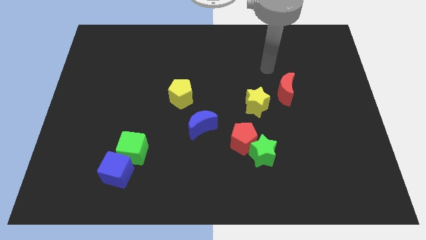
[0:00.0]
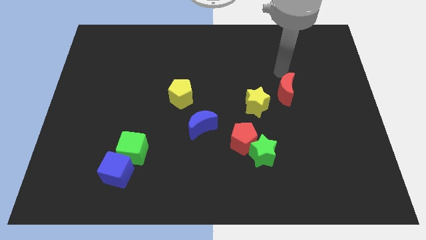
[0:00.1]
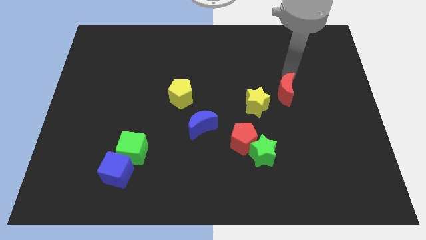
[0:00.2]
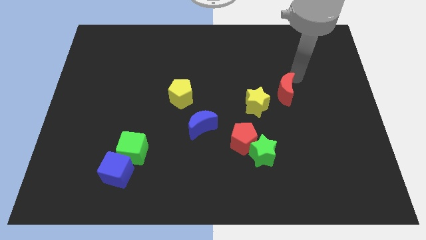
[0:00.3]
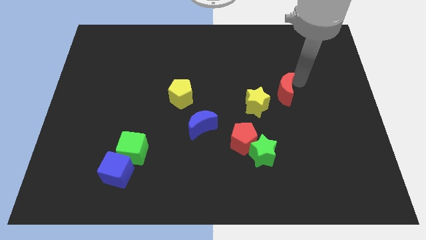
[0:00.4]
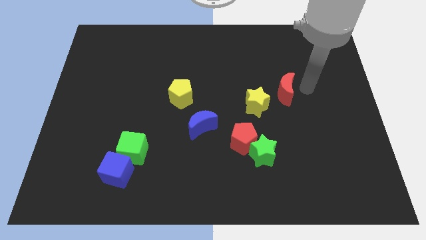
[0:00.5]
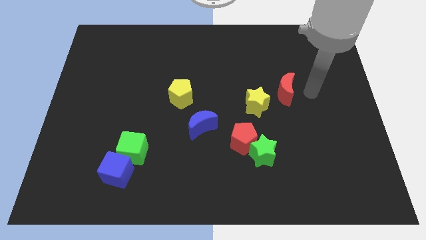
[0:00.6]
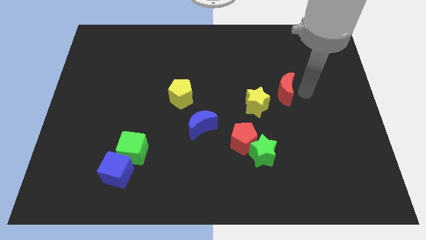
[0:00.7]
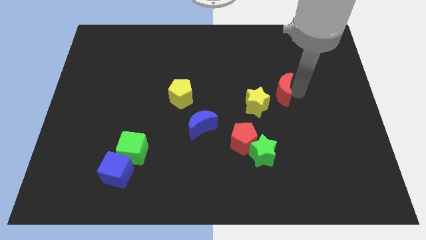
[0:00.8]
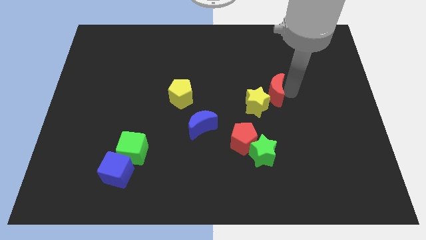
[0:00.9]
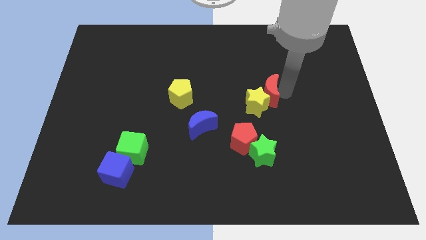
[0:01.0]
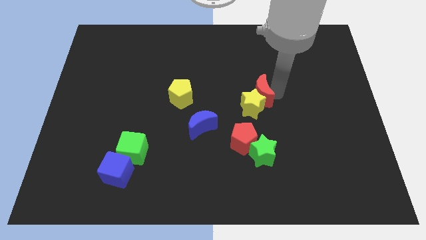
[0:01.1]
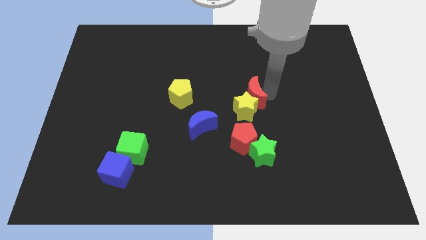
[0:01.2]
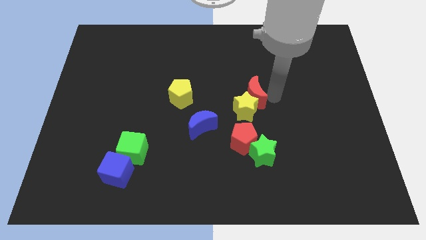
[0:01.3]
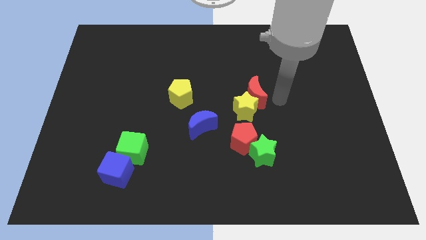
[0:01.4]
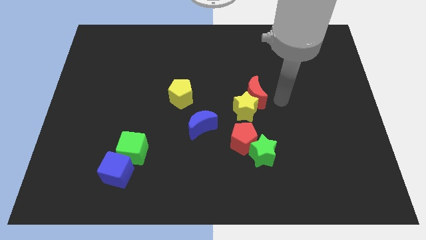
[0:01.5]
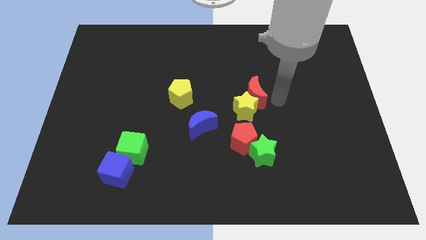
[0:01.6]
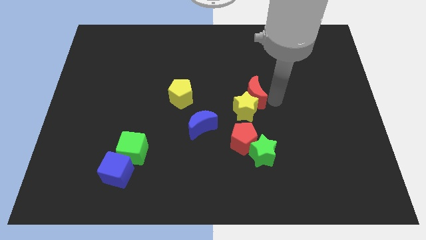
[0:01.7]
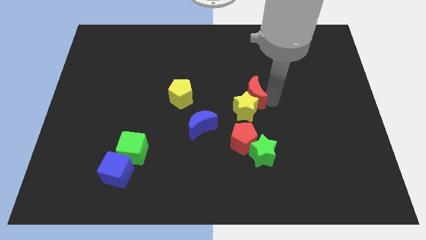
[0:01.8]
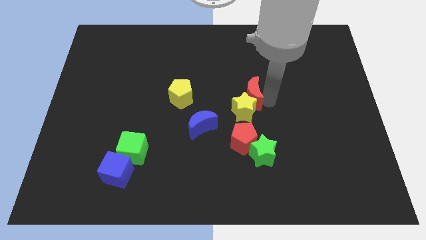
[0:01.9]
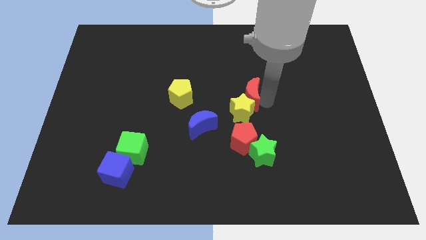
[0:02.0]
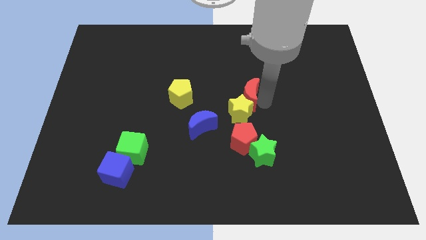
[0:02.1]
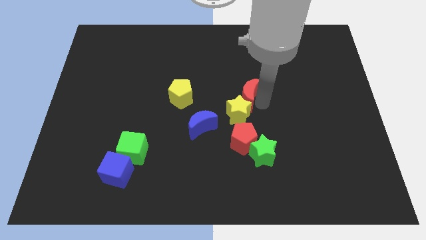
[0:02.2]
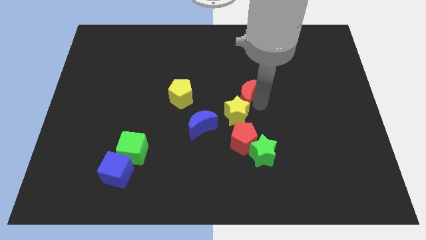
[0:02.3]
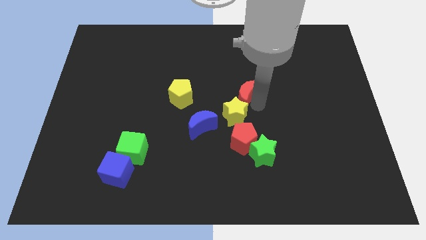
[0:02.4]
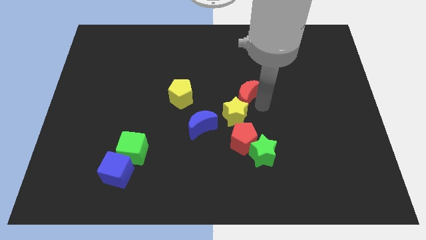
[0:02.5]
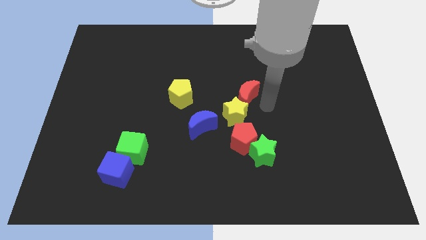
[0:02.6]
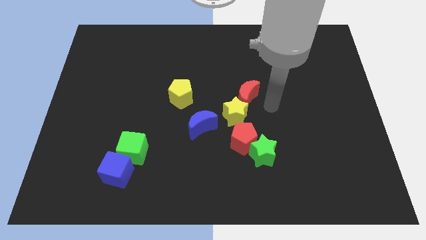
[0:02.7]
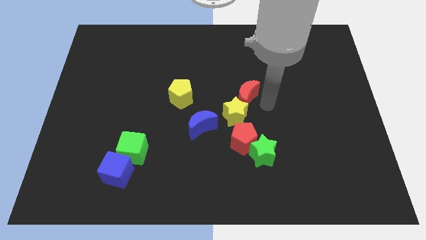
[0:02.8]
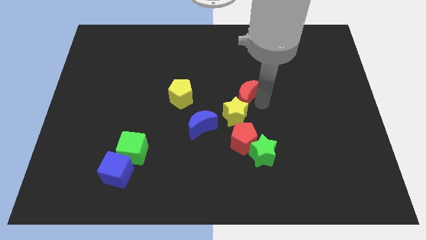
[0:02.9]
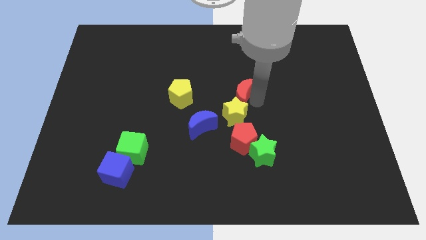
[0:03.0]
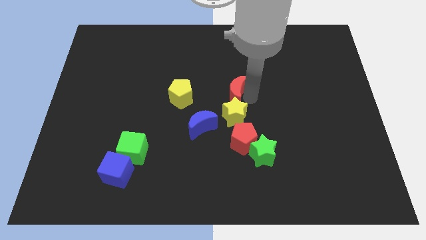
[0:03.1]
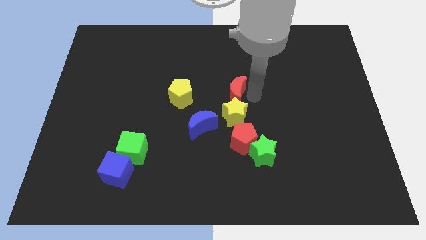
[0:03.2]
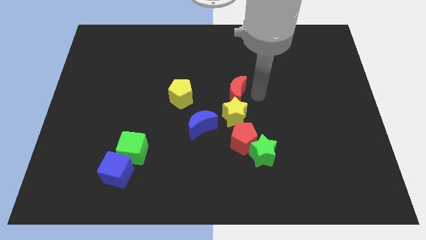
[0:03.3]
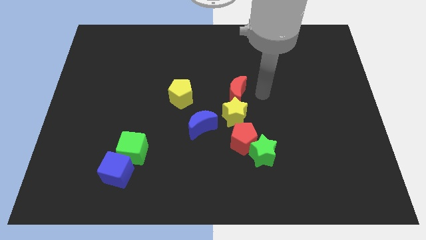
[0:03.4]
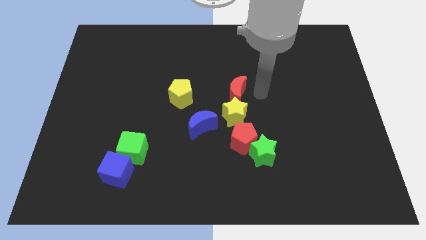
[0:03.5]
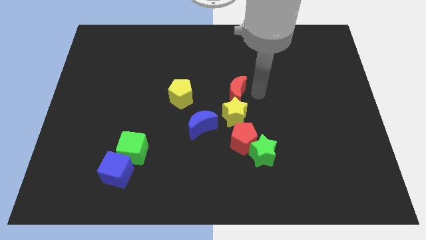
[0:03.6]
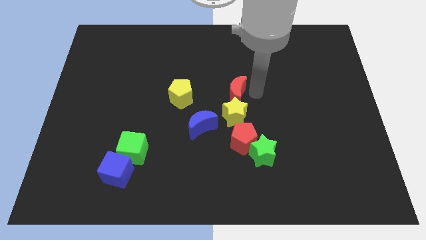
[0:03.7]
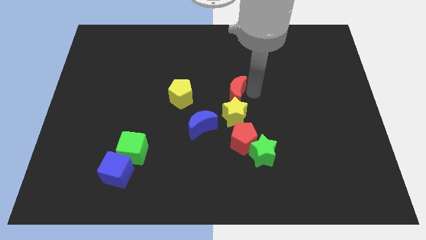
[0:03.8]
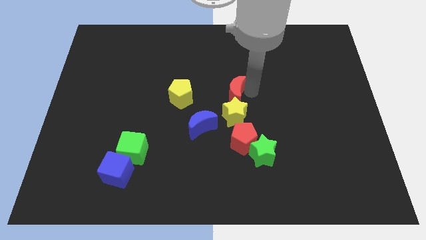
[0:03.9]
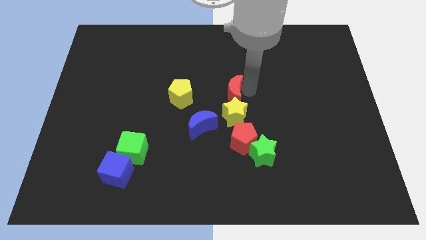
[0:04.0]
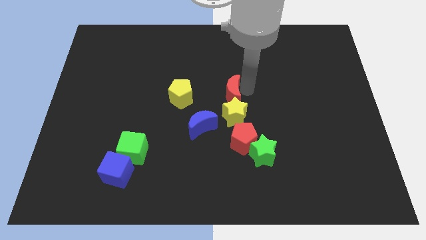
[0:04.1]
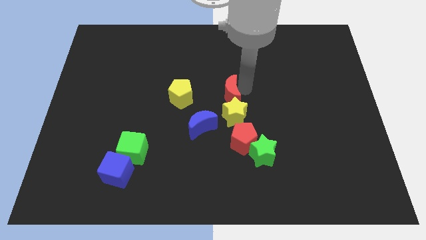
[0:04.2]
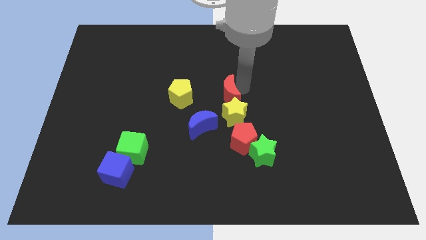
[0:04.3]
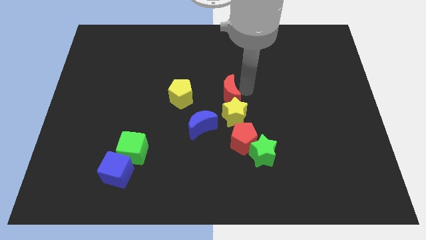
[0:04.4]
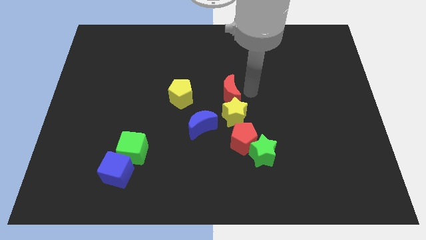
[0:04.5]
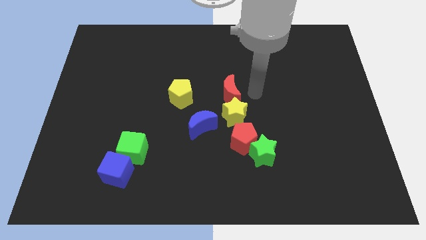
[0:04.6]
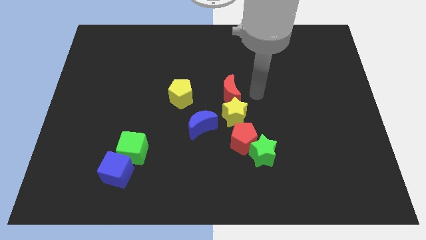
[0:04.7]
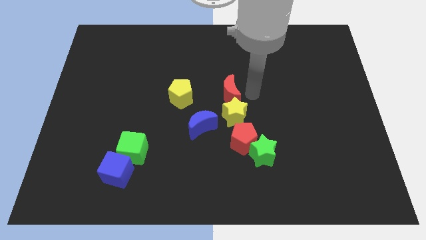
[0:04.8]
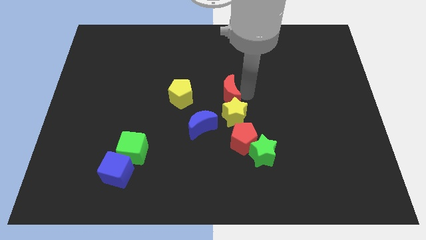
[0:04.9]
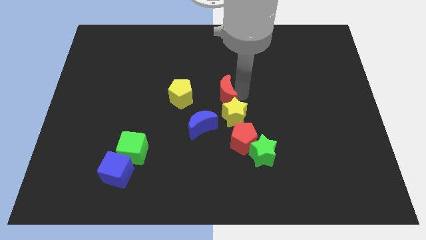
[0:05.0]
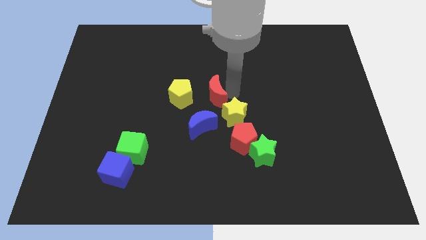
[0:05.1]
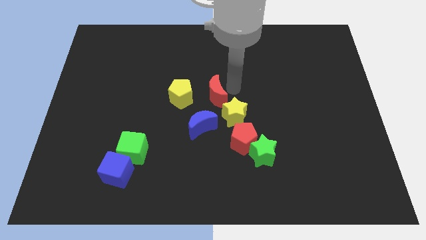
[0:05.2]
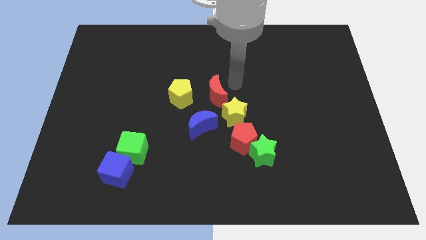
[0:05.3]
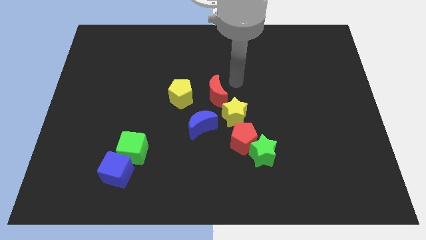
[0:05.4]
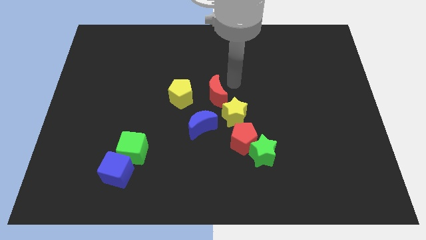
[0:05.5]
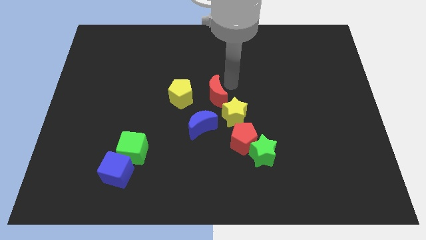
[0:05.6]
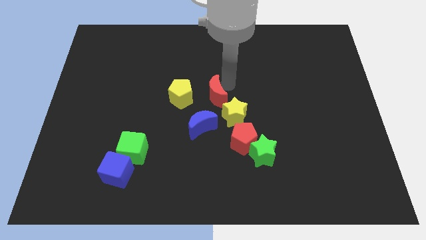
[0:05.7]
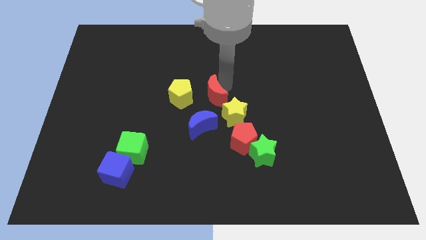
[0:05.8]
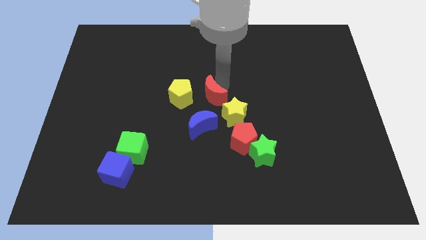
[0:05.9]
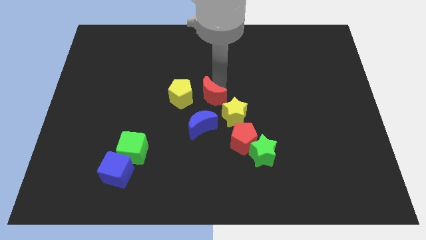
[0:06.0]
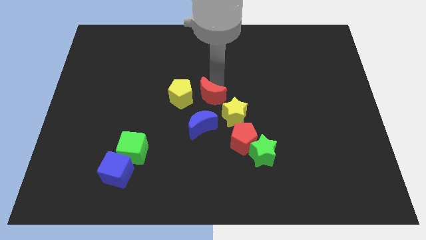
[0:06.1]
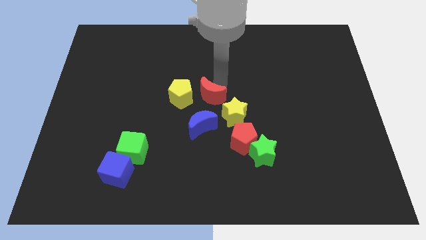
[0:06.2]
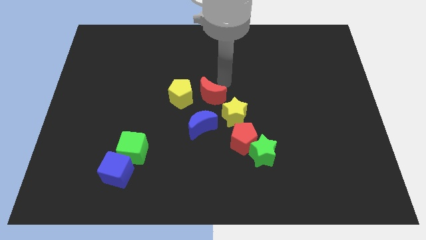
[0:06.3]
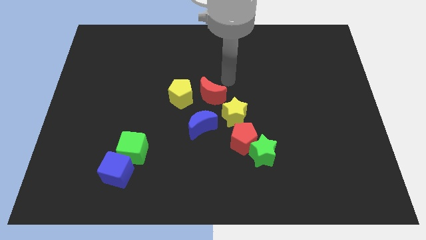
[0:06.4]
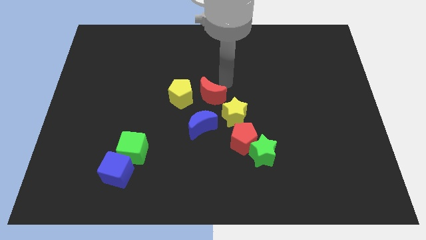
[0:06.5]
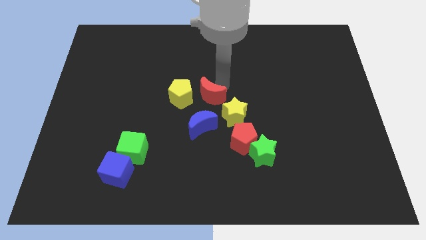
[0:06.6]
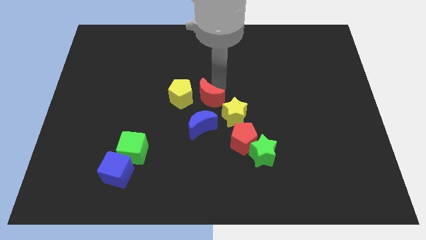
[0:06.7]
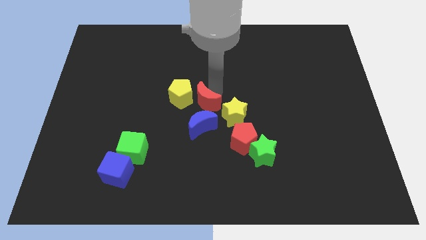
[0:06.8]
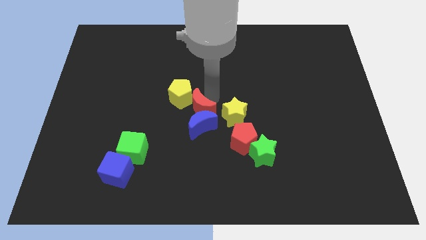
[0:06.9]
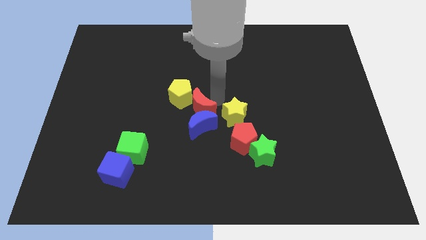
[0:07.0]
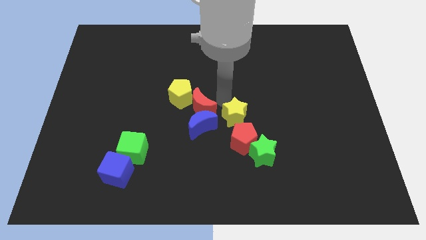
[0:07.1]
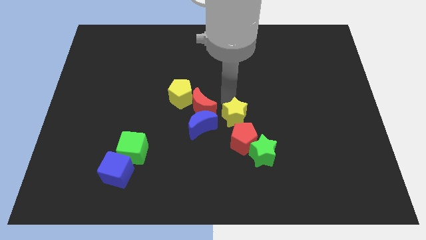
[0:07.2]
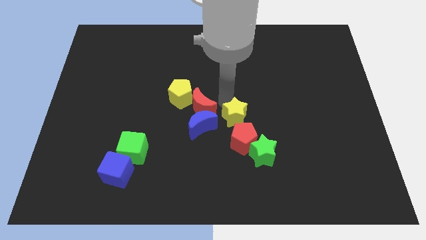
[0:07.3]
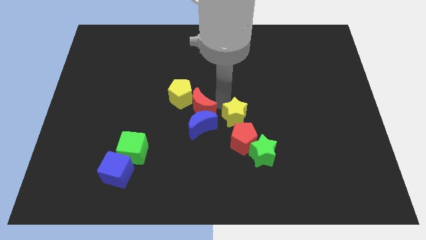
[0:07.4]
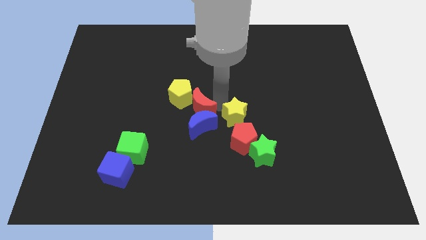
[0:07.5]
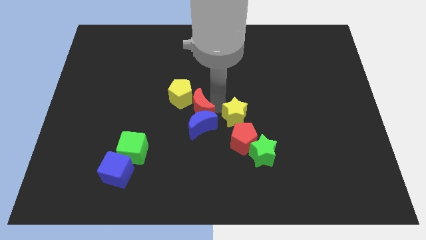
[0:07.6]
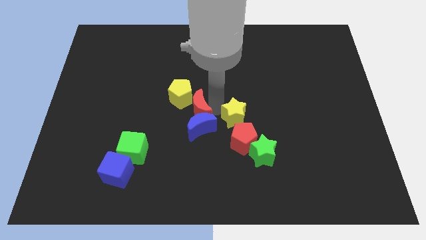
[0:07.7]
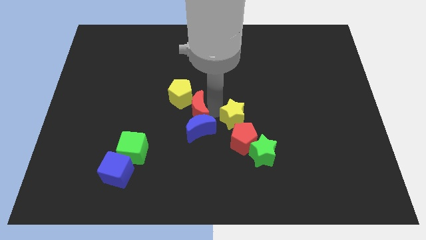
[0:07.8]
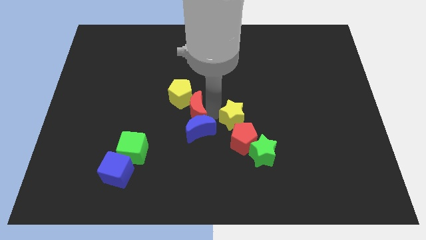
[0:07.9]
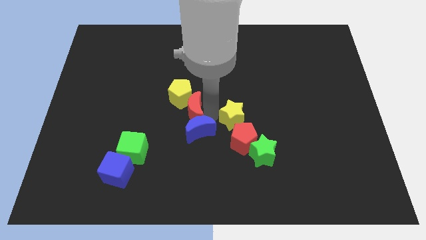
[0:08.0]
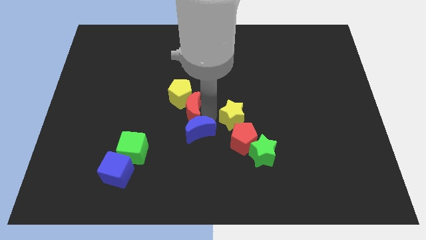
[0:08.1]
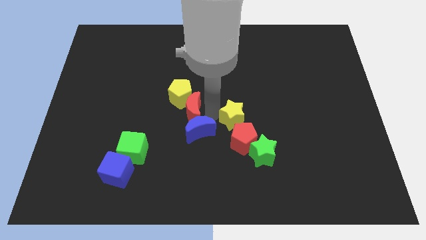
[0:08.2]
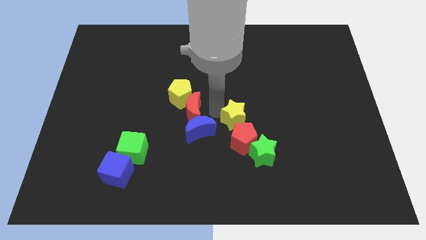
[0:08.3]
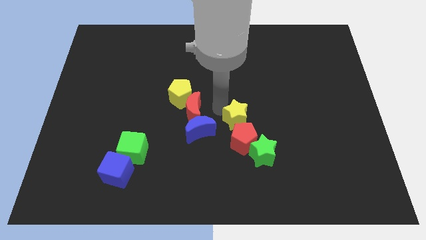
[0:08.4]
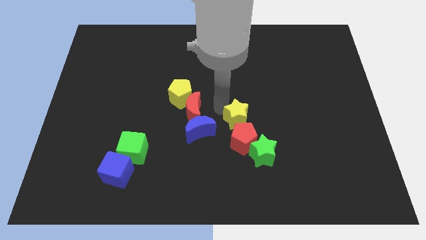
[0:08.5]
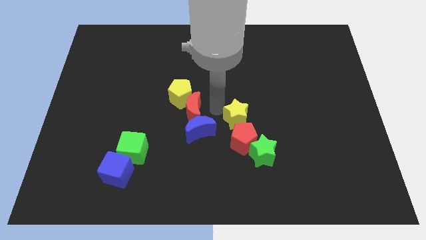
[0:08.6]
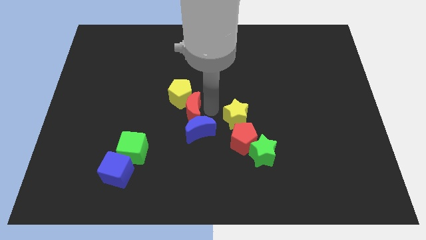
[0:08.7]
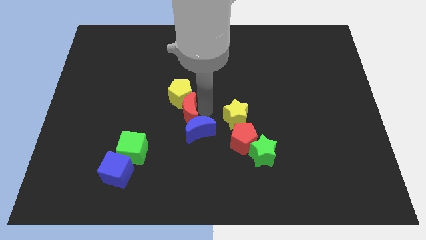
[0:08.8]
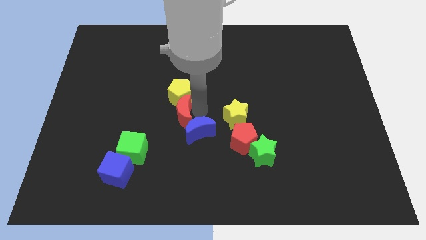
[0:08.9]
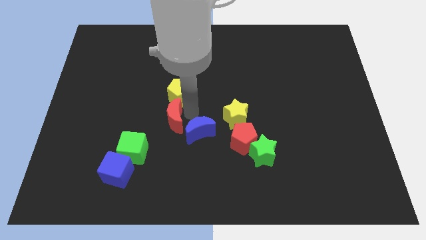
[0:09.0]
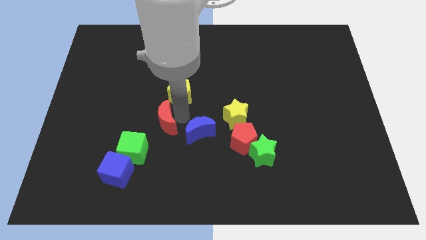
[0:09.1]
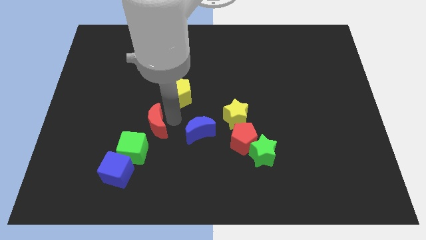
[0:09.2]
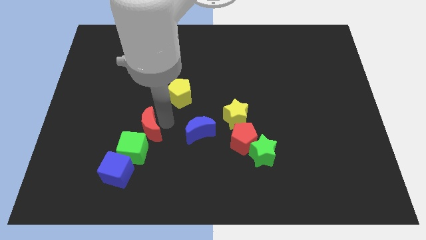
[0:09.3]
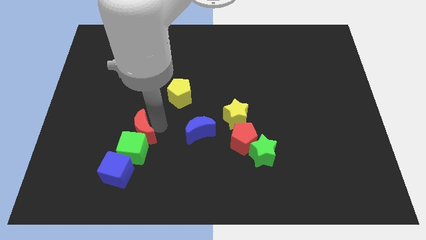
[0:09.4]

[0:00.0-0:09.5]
put the red moon above the blue cube
